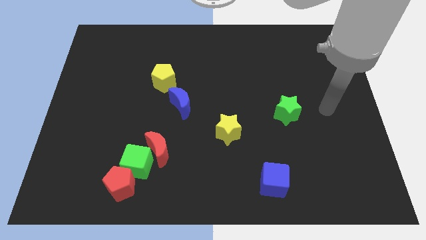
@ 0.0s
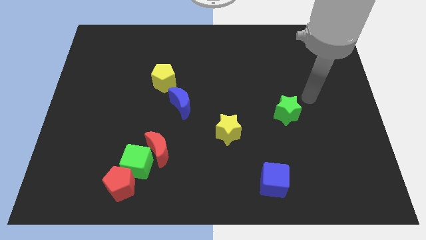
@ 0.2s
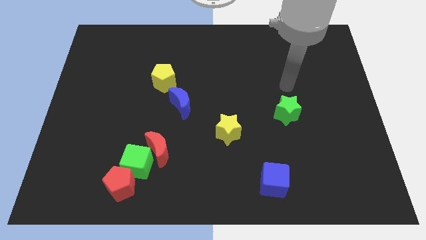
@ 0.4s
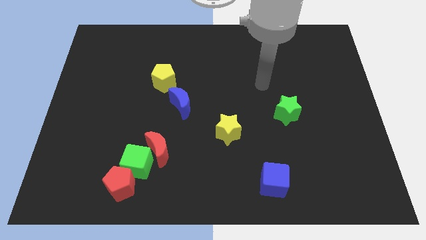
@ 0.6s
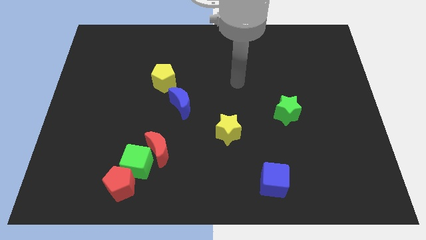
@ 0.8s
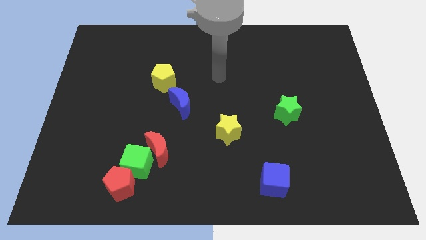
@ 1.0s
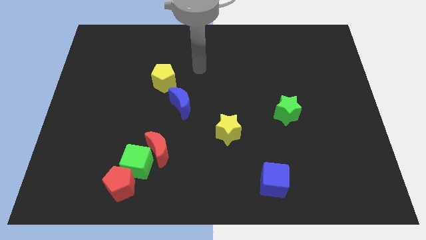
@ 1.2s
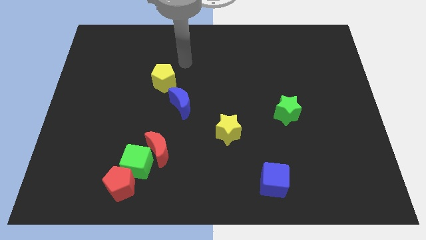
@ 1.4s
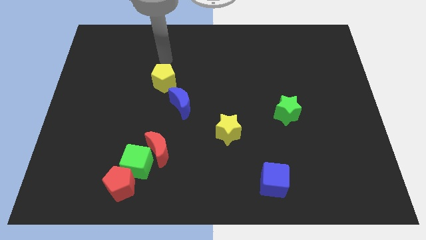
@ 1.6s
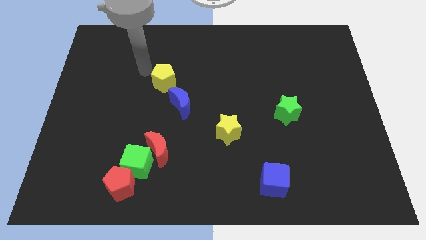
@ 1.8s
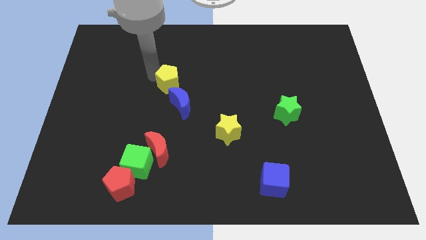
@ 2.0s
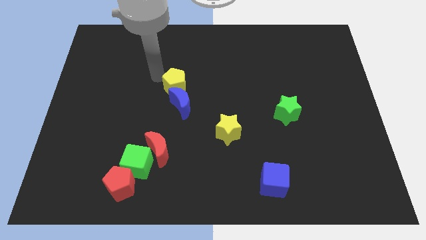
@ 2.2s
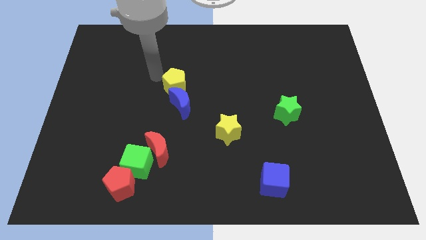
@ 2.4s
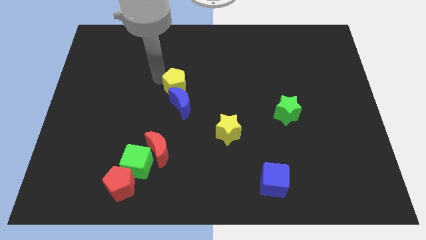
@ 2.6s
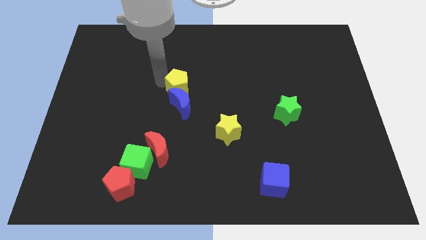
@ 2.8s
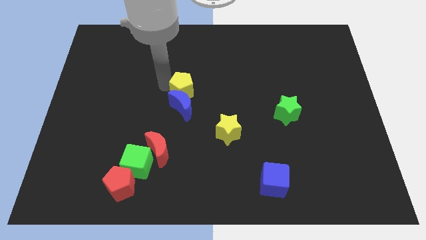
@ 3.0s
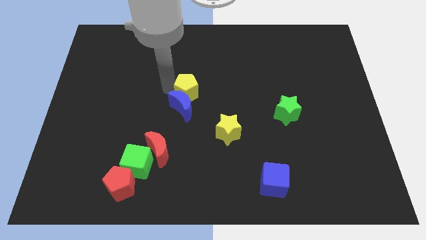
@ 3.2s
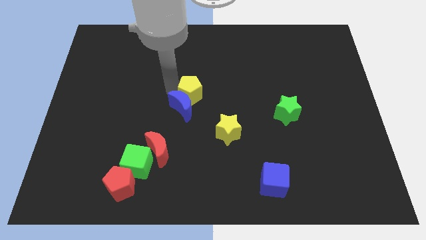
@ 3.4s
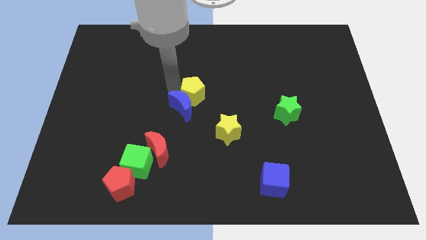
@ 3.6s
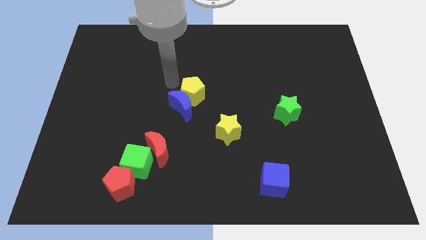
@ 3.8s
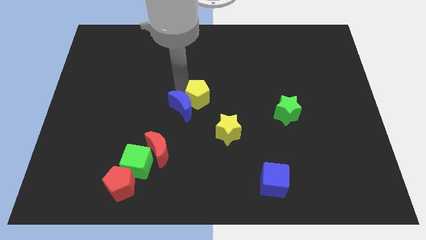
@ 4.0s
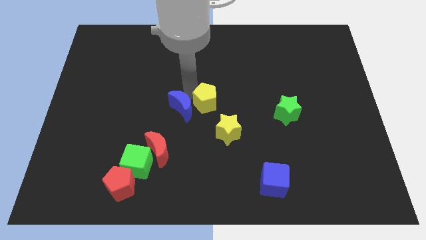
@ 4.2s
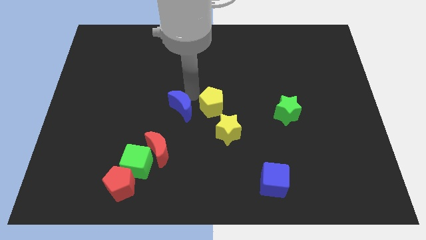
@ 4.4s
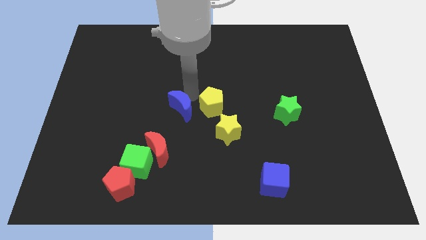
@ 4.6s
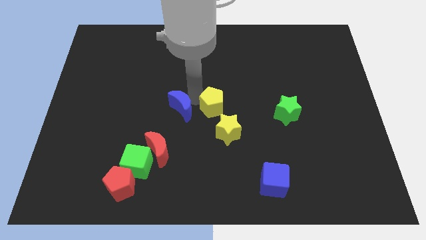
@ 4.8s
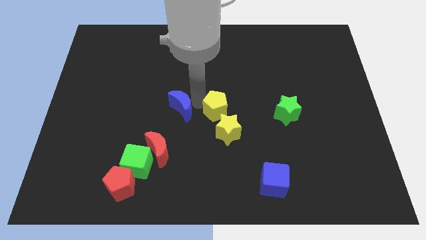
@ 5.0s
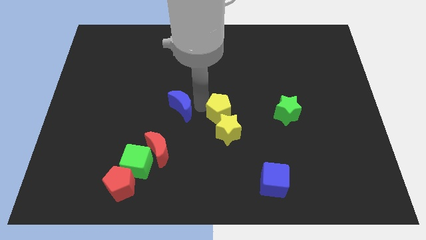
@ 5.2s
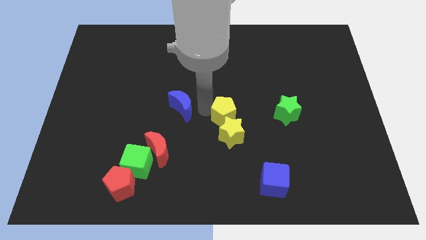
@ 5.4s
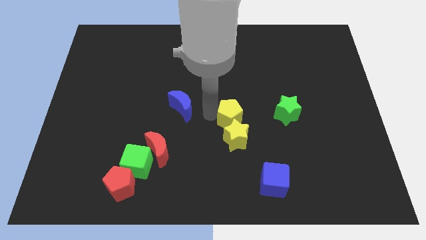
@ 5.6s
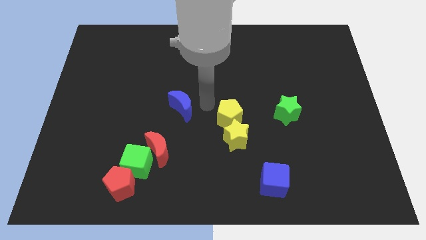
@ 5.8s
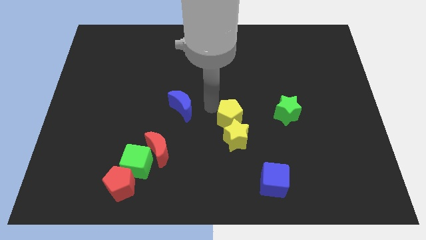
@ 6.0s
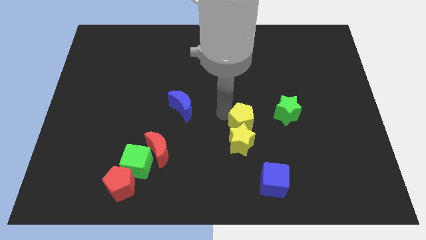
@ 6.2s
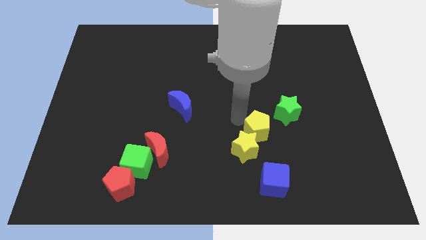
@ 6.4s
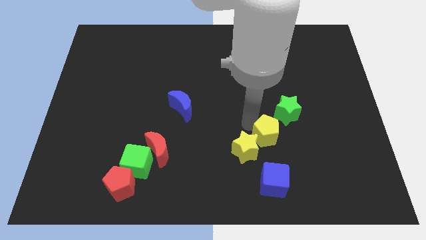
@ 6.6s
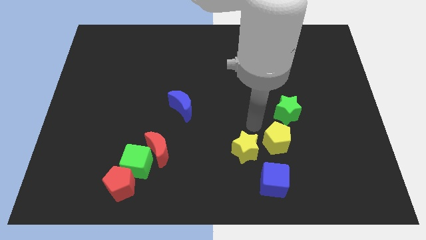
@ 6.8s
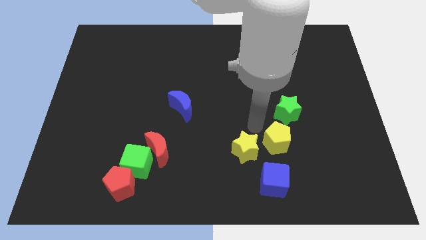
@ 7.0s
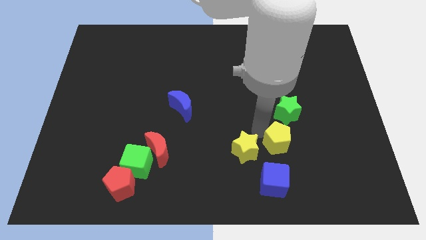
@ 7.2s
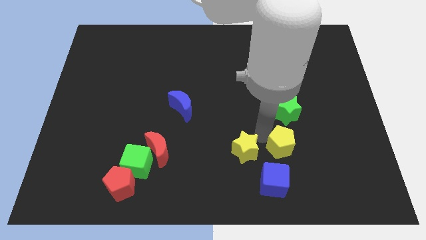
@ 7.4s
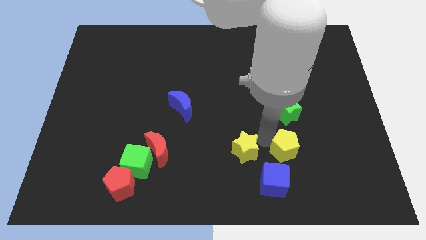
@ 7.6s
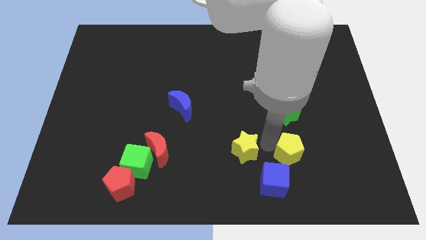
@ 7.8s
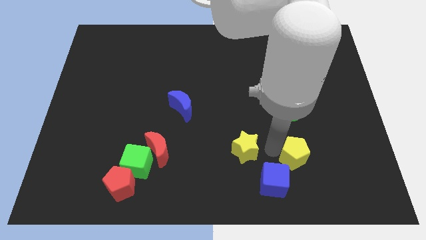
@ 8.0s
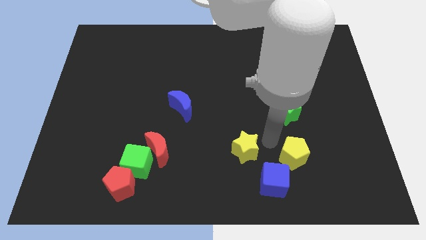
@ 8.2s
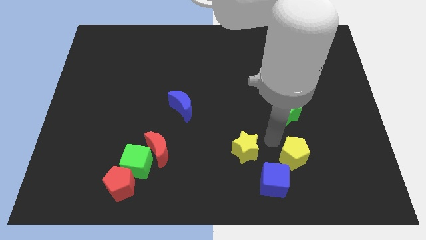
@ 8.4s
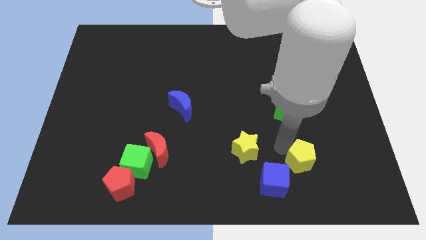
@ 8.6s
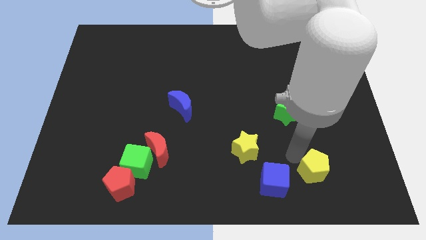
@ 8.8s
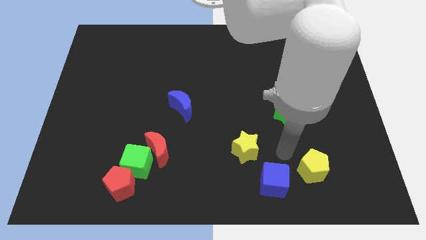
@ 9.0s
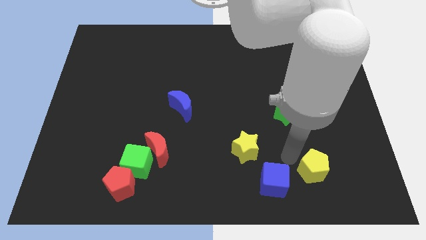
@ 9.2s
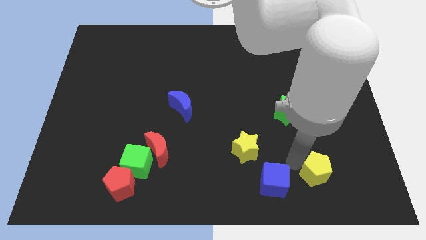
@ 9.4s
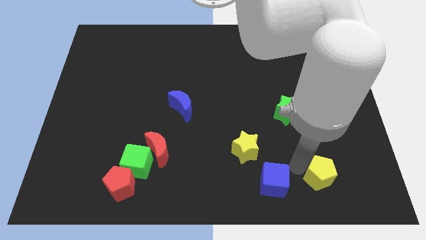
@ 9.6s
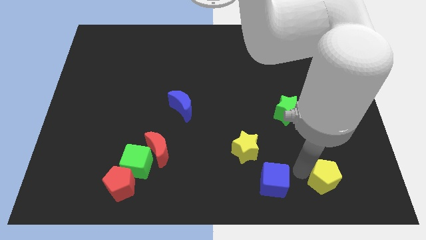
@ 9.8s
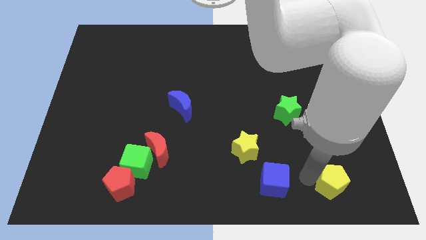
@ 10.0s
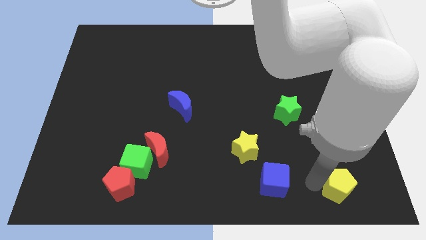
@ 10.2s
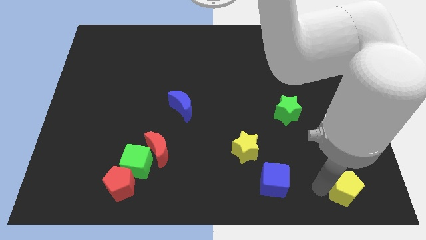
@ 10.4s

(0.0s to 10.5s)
slide the yellow pentagon to the bottom right of the board

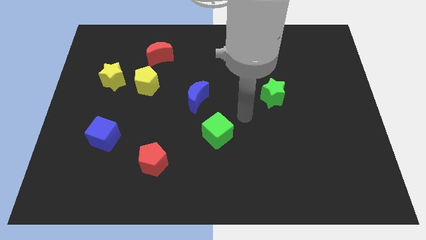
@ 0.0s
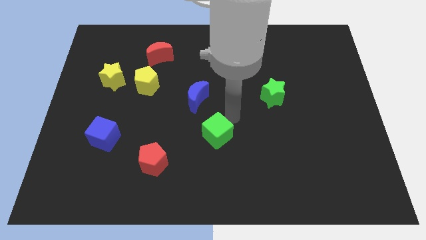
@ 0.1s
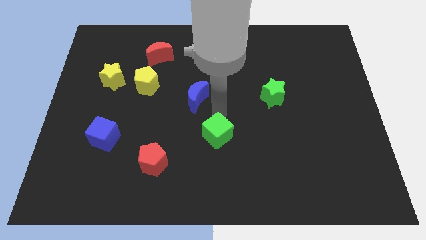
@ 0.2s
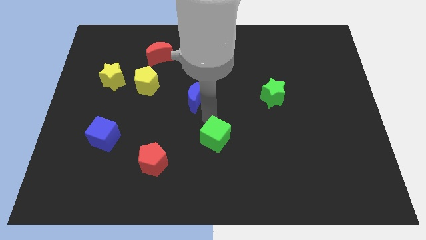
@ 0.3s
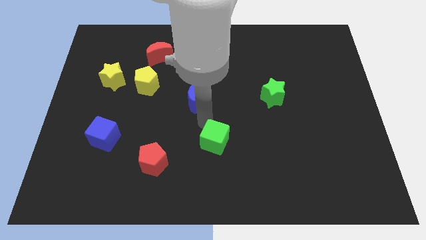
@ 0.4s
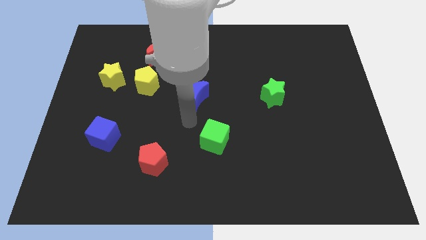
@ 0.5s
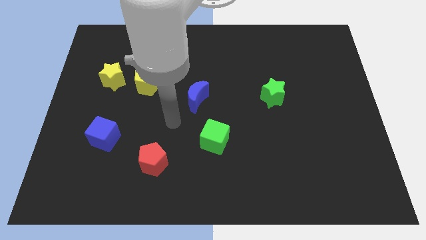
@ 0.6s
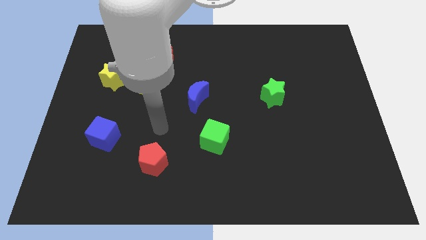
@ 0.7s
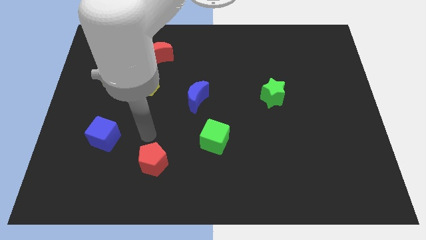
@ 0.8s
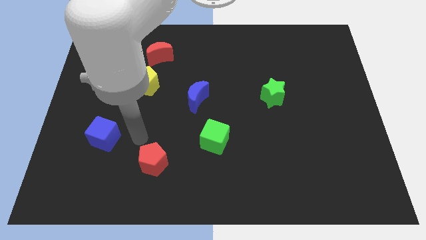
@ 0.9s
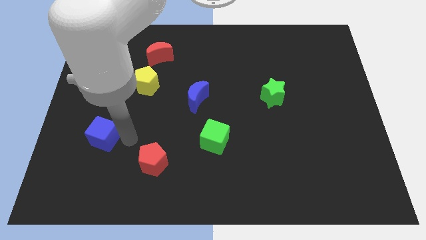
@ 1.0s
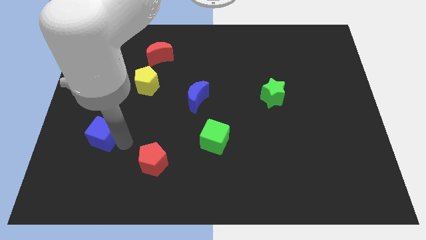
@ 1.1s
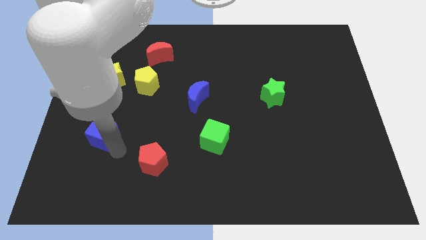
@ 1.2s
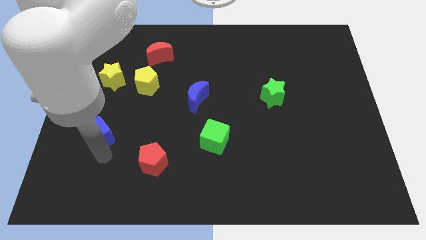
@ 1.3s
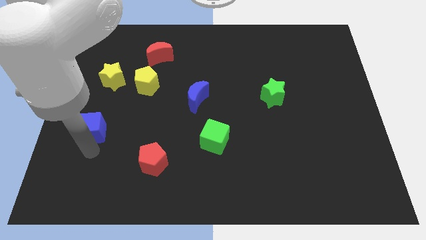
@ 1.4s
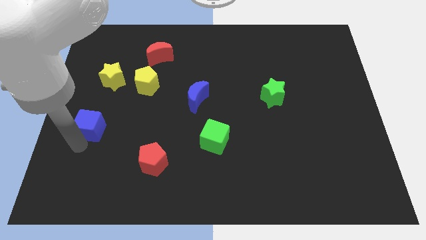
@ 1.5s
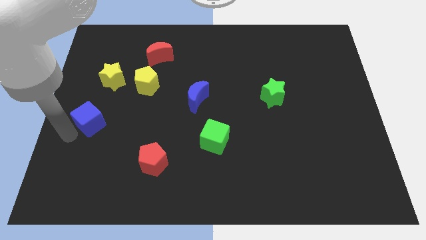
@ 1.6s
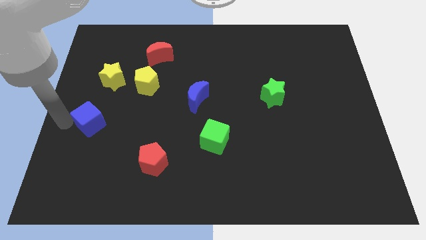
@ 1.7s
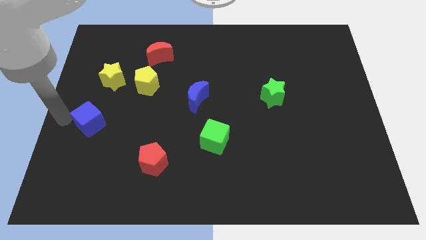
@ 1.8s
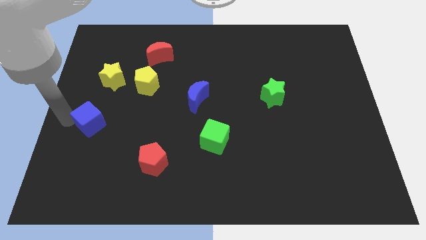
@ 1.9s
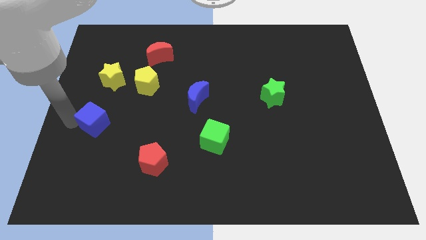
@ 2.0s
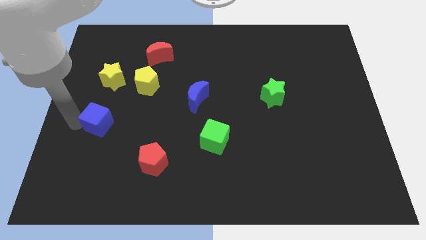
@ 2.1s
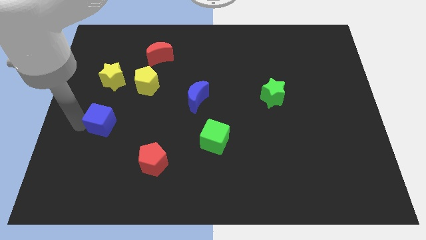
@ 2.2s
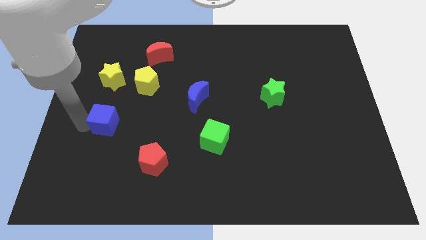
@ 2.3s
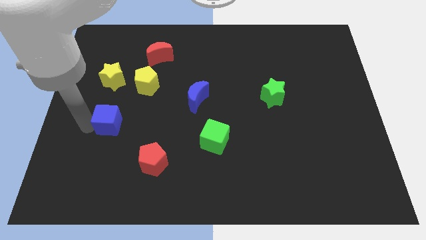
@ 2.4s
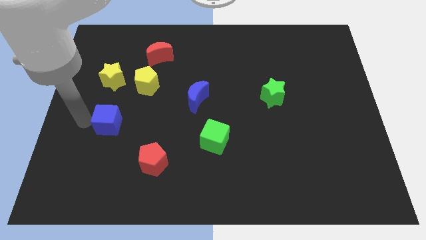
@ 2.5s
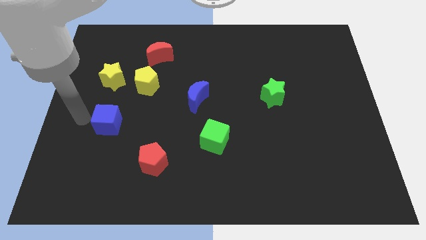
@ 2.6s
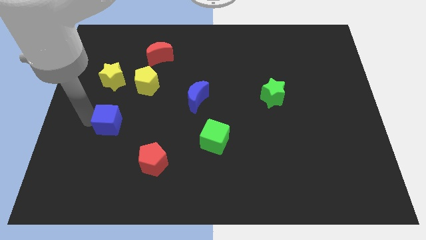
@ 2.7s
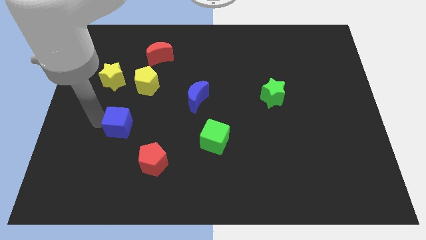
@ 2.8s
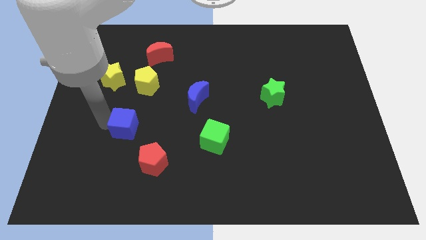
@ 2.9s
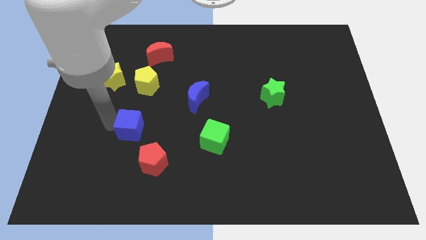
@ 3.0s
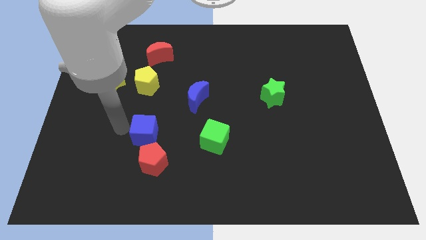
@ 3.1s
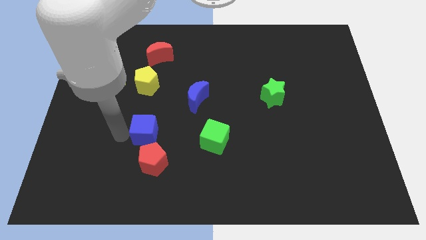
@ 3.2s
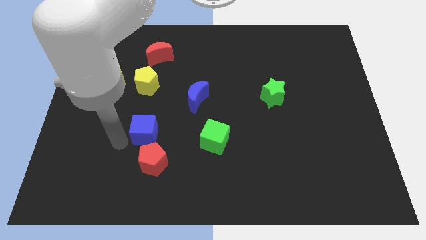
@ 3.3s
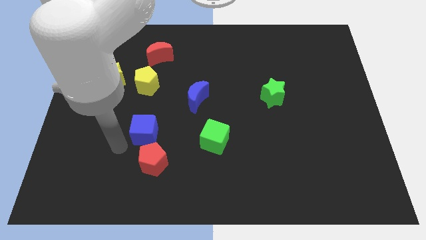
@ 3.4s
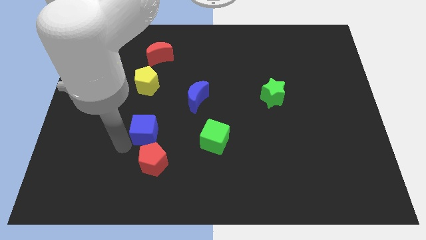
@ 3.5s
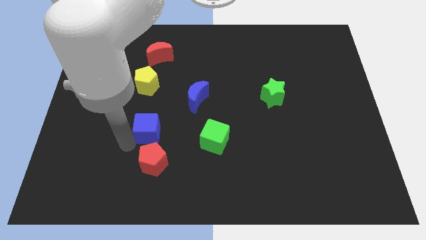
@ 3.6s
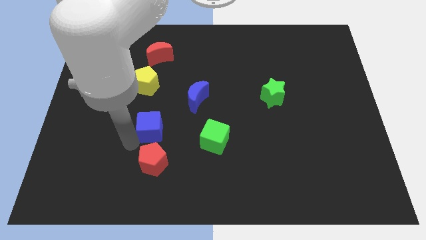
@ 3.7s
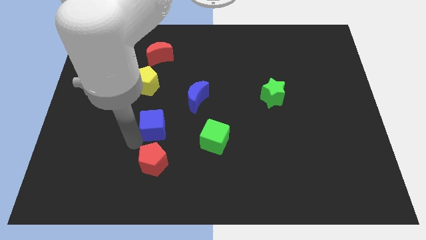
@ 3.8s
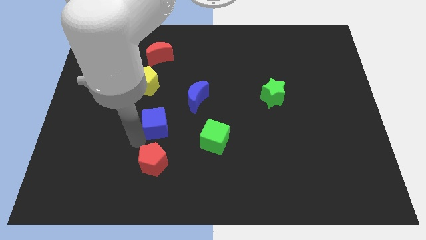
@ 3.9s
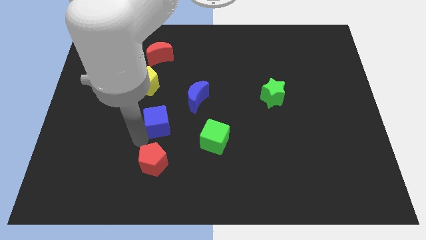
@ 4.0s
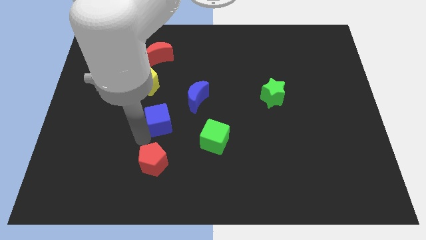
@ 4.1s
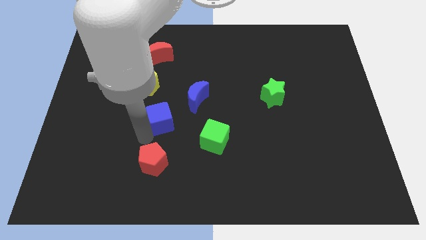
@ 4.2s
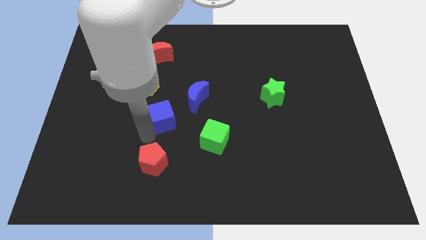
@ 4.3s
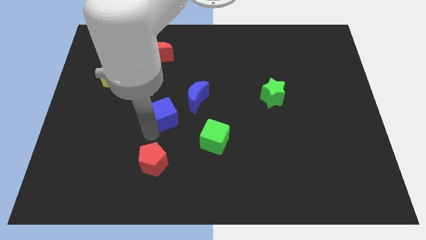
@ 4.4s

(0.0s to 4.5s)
move the blue cube to the middle of the board
